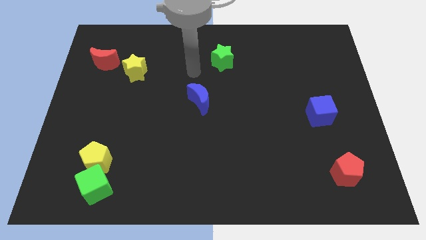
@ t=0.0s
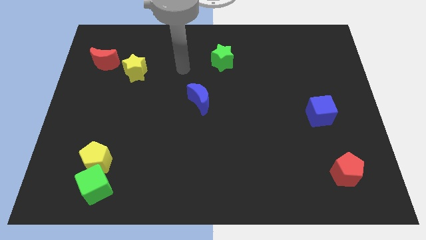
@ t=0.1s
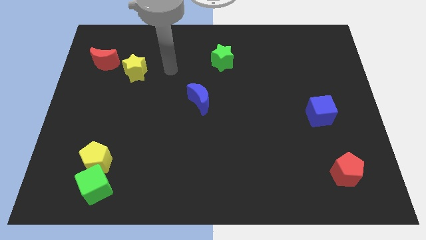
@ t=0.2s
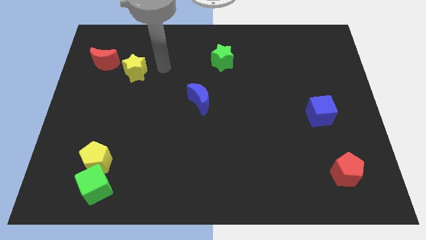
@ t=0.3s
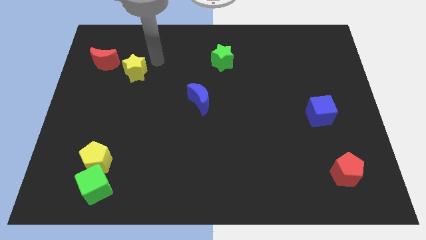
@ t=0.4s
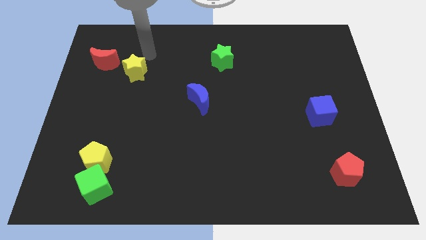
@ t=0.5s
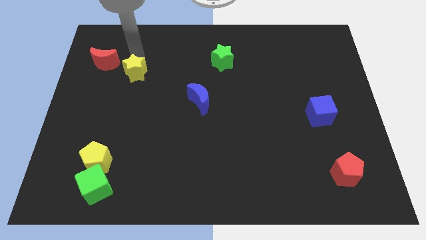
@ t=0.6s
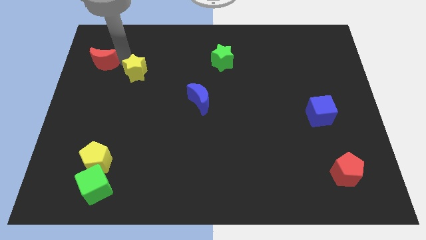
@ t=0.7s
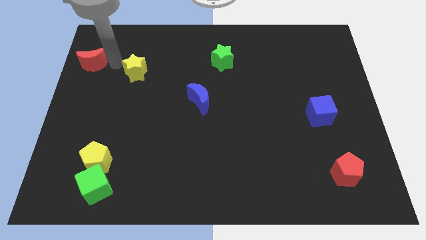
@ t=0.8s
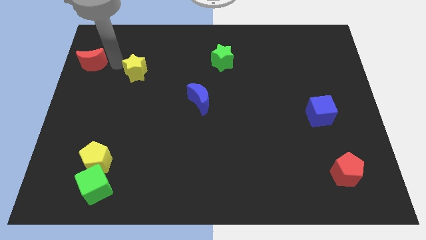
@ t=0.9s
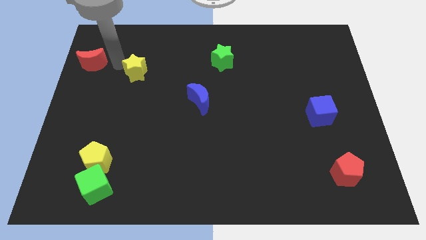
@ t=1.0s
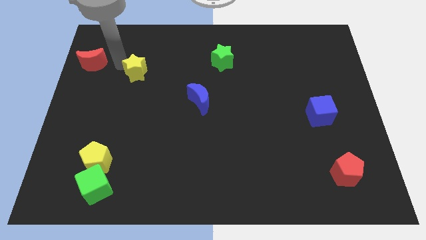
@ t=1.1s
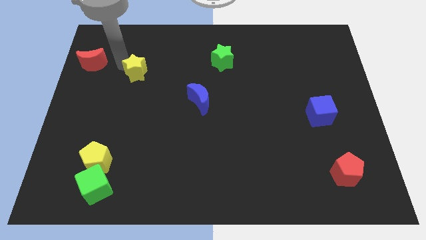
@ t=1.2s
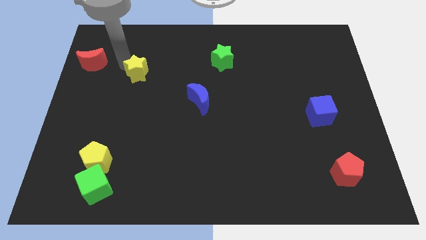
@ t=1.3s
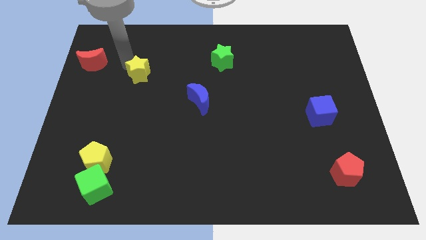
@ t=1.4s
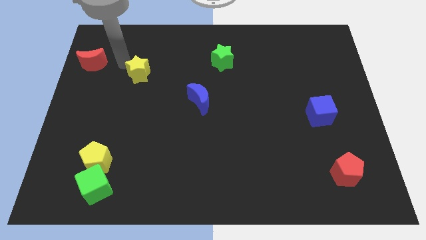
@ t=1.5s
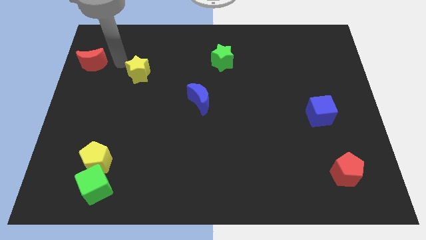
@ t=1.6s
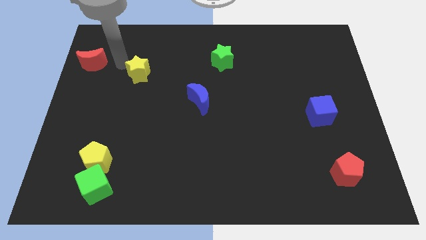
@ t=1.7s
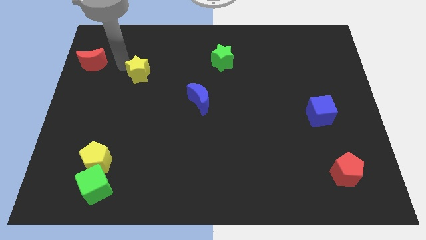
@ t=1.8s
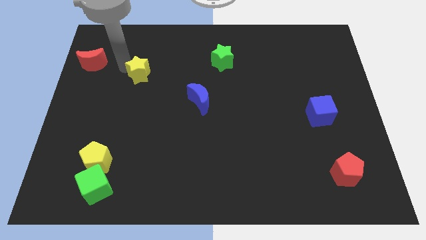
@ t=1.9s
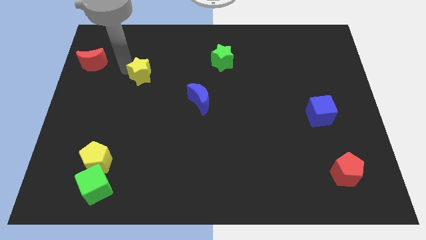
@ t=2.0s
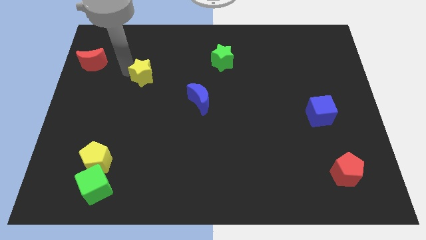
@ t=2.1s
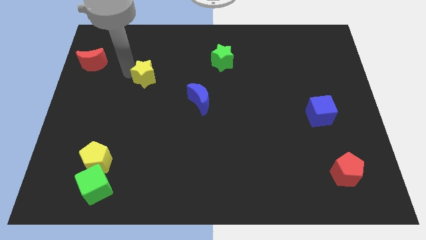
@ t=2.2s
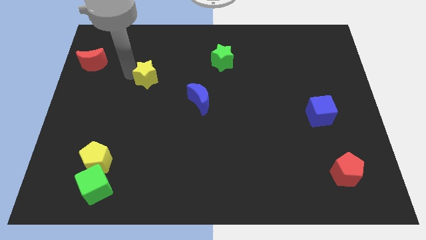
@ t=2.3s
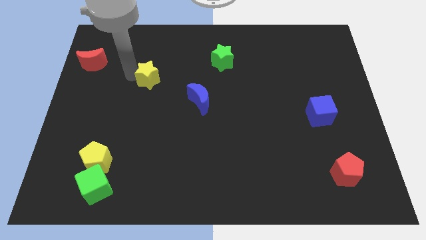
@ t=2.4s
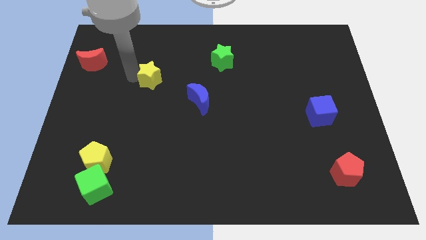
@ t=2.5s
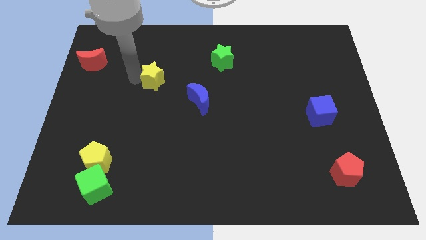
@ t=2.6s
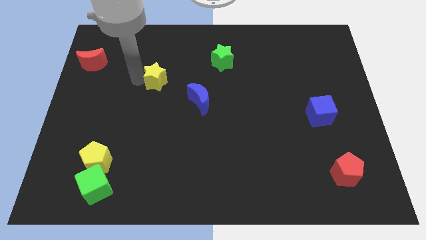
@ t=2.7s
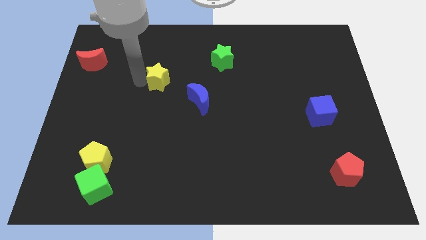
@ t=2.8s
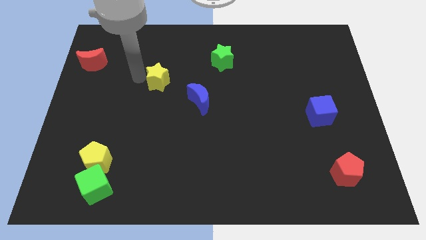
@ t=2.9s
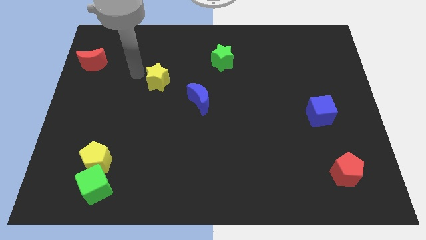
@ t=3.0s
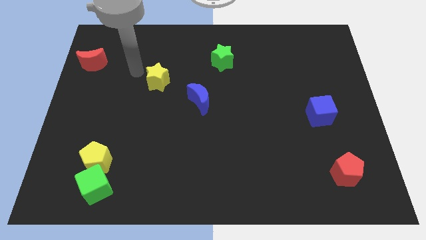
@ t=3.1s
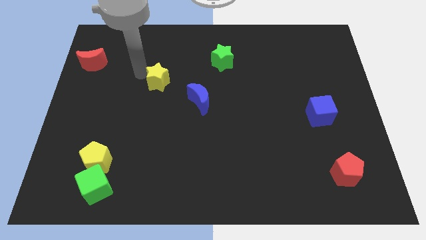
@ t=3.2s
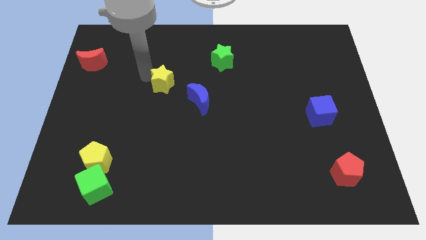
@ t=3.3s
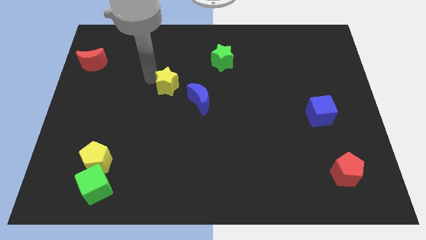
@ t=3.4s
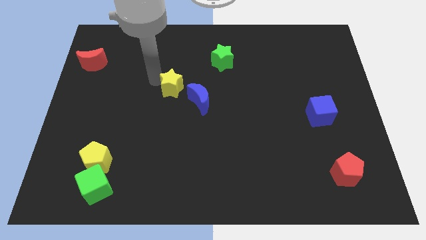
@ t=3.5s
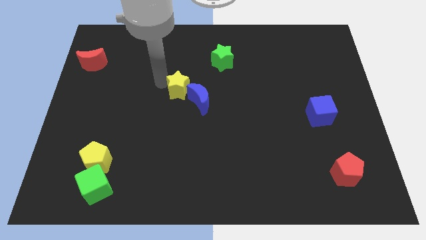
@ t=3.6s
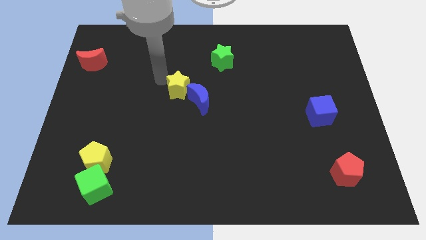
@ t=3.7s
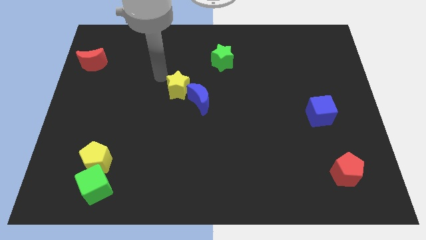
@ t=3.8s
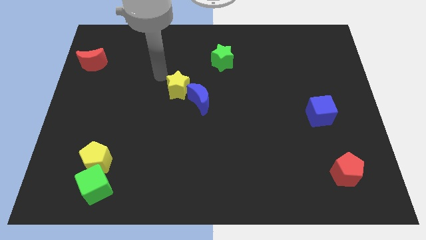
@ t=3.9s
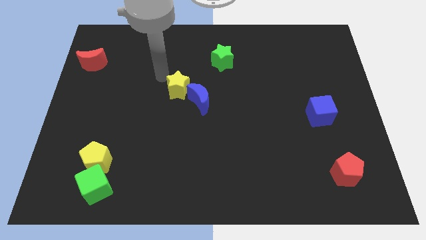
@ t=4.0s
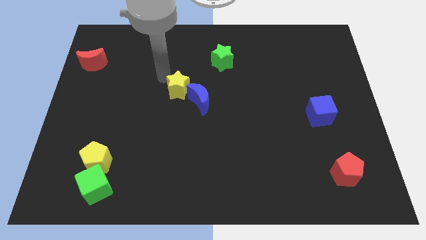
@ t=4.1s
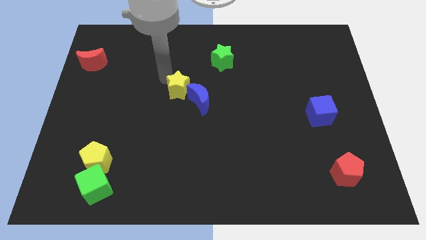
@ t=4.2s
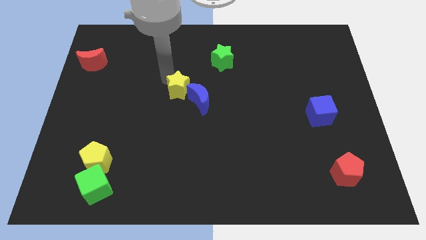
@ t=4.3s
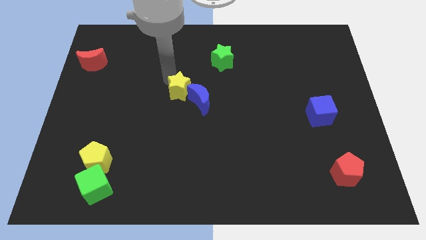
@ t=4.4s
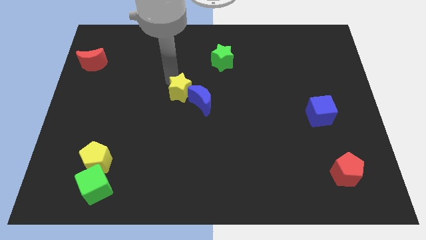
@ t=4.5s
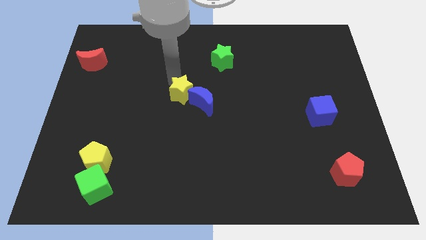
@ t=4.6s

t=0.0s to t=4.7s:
push the yellow star close to the blue moon

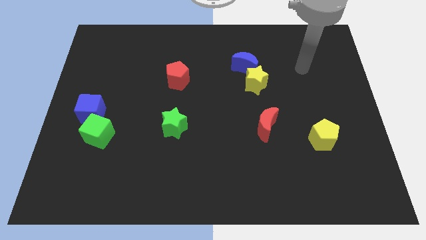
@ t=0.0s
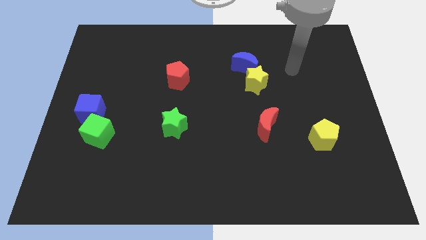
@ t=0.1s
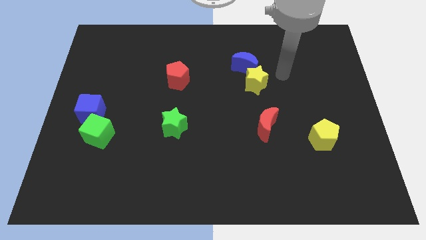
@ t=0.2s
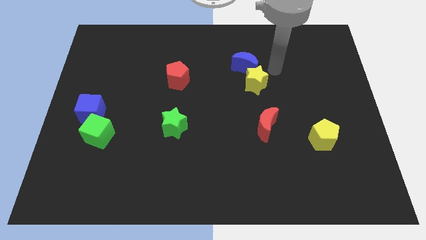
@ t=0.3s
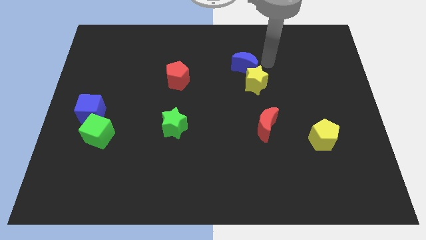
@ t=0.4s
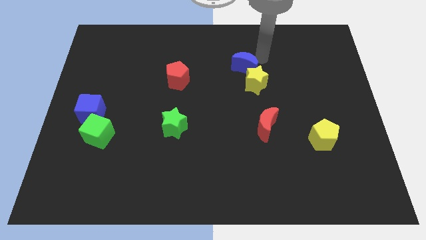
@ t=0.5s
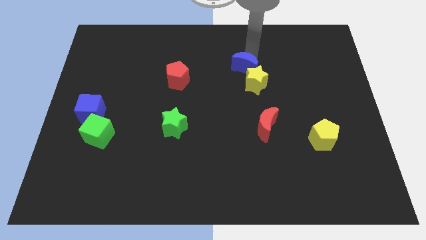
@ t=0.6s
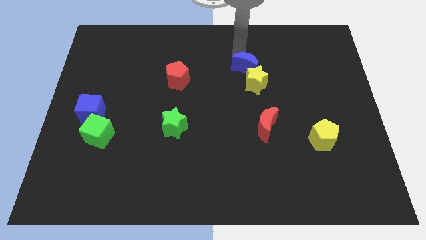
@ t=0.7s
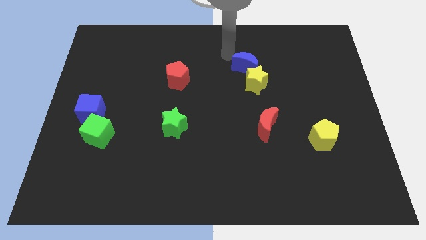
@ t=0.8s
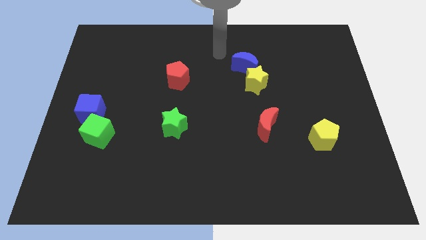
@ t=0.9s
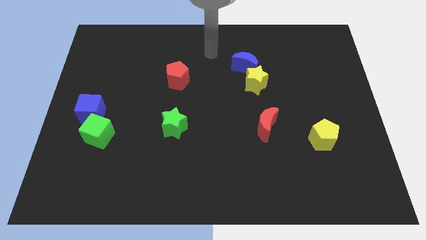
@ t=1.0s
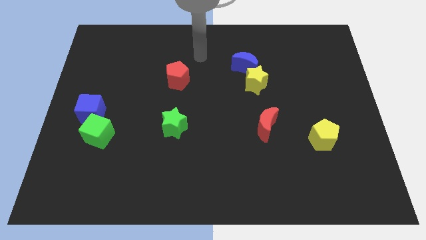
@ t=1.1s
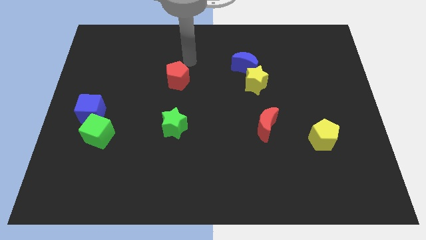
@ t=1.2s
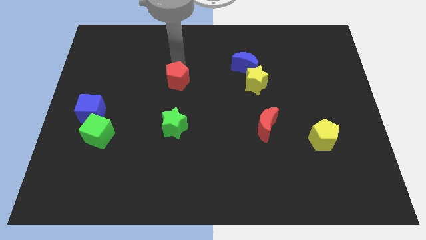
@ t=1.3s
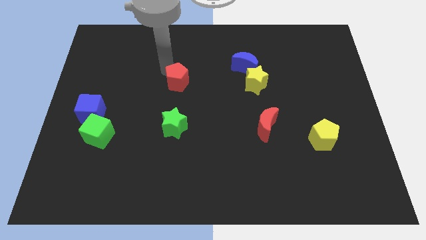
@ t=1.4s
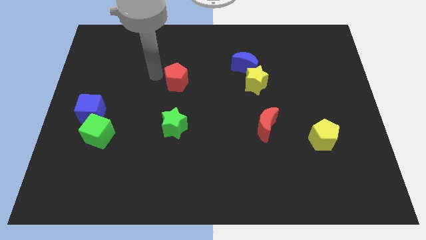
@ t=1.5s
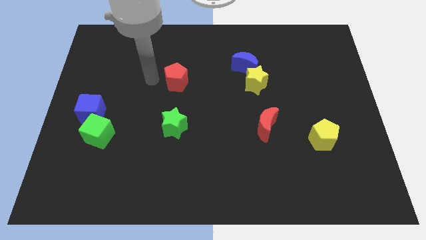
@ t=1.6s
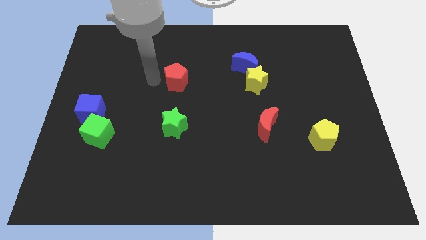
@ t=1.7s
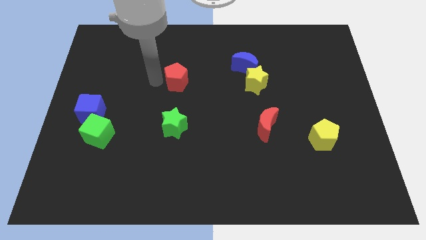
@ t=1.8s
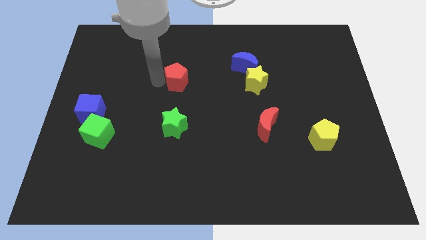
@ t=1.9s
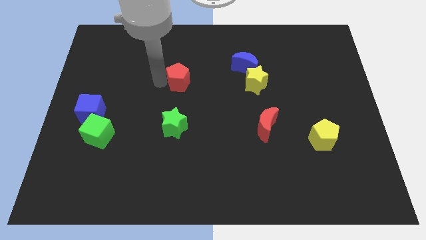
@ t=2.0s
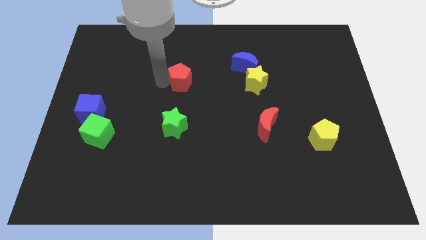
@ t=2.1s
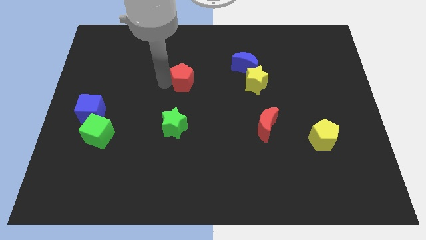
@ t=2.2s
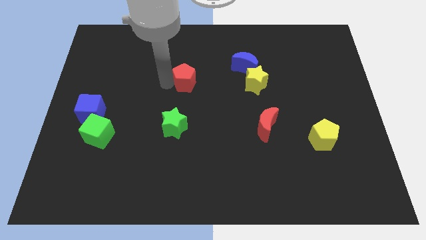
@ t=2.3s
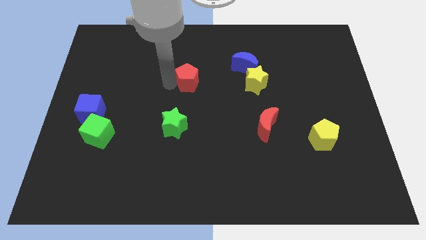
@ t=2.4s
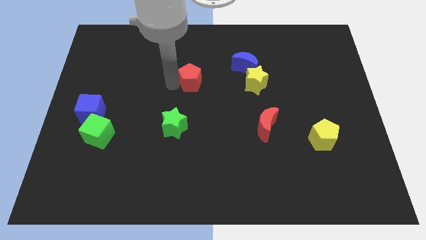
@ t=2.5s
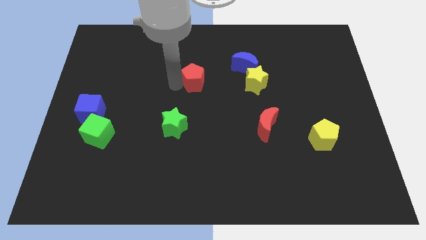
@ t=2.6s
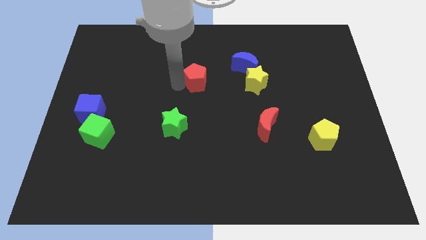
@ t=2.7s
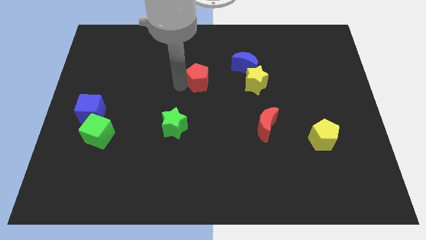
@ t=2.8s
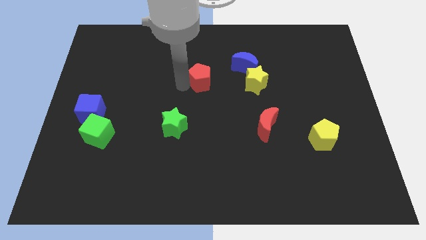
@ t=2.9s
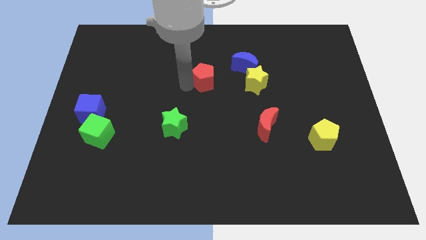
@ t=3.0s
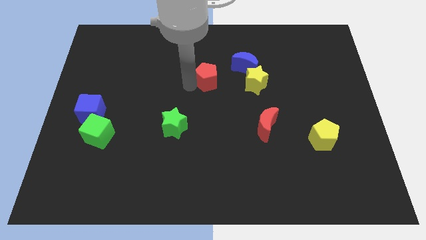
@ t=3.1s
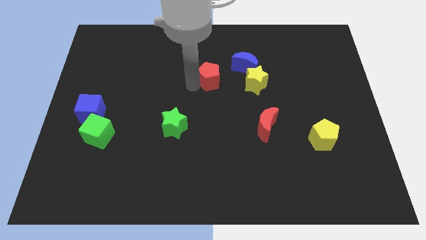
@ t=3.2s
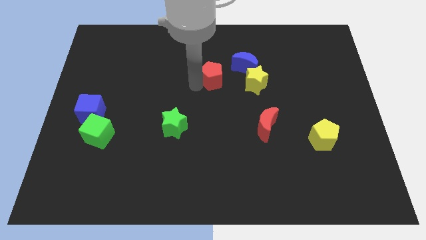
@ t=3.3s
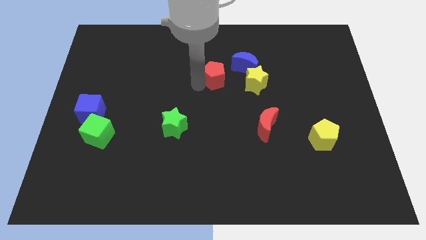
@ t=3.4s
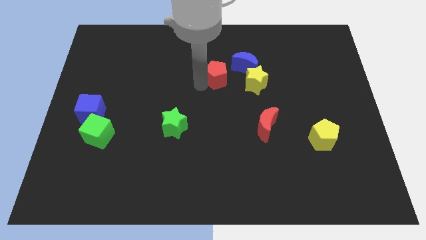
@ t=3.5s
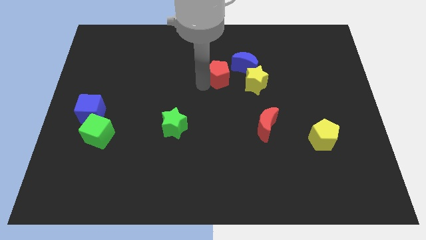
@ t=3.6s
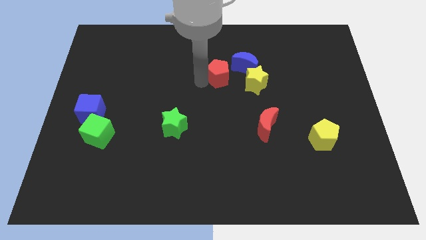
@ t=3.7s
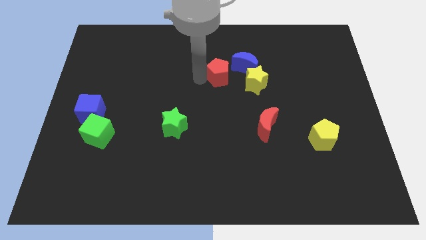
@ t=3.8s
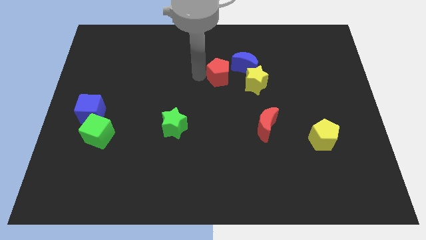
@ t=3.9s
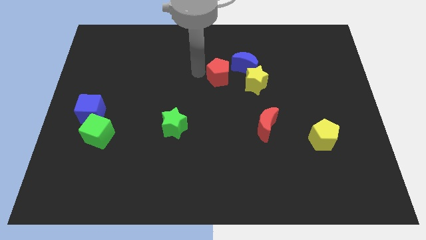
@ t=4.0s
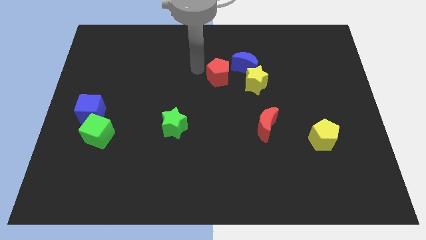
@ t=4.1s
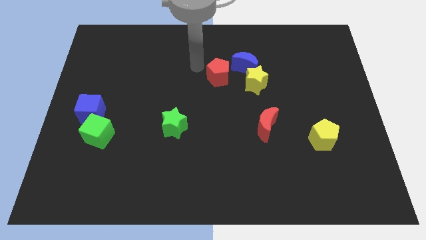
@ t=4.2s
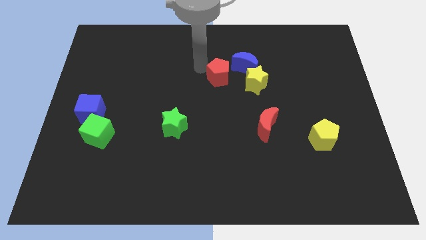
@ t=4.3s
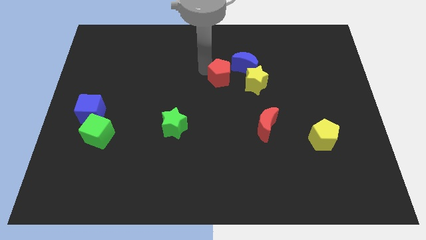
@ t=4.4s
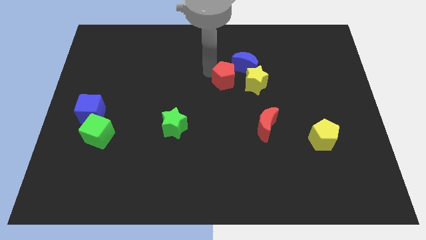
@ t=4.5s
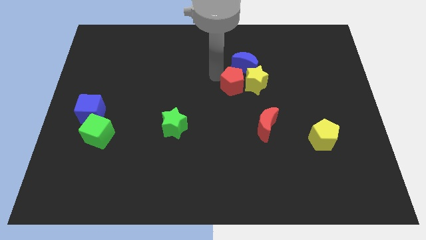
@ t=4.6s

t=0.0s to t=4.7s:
put the red pentagon next to the yellow star
